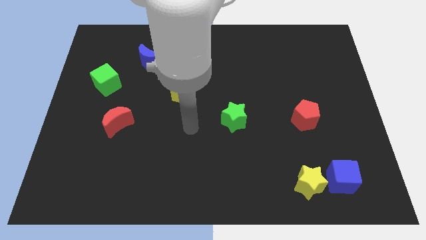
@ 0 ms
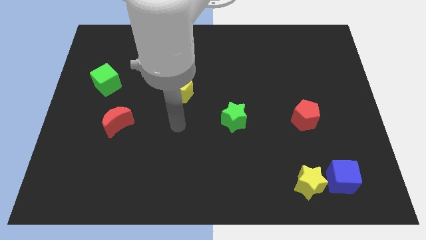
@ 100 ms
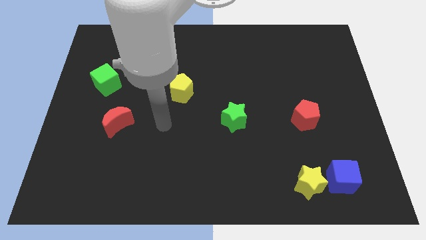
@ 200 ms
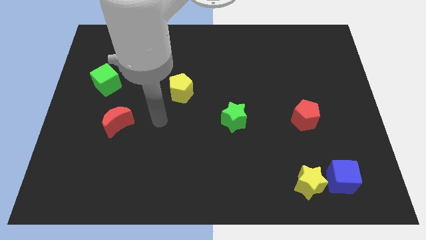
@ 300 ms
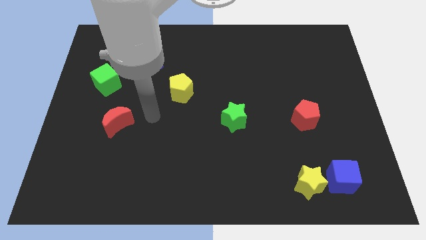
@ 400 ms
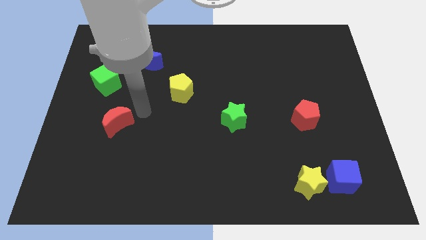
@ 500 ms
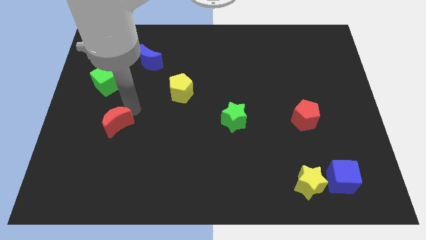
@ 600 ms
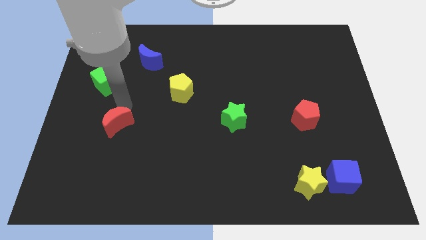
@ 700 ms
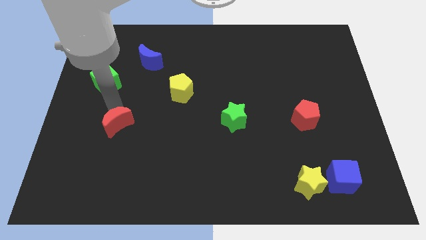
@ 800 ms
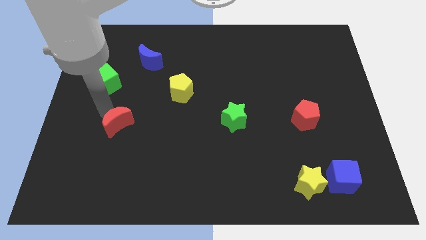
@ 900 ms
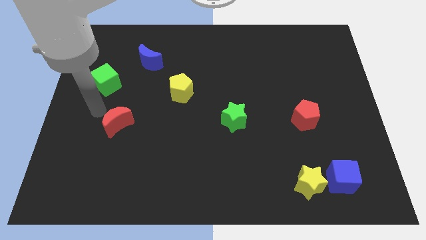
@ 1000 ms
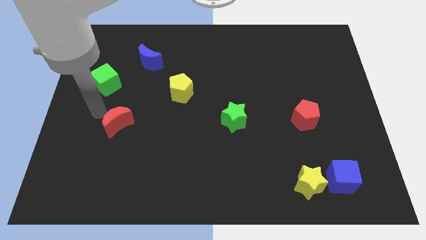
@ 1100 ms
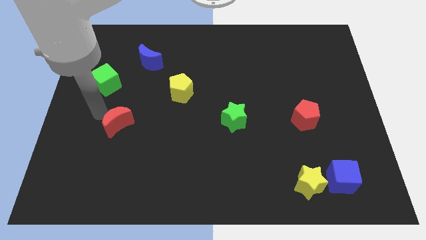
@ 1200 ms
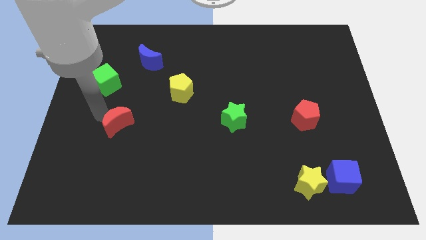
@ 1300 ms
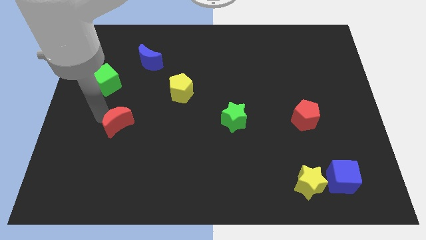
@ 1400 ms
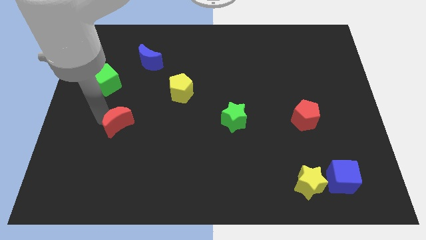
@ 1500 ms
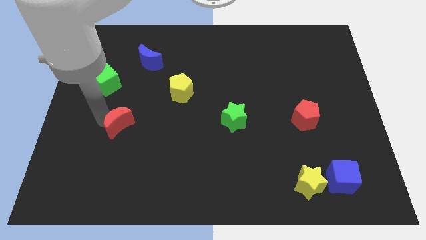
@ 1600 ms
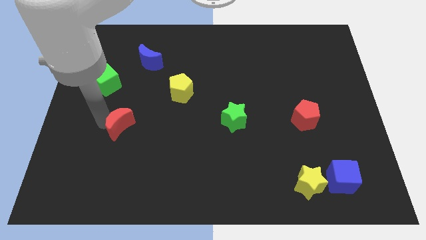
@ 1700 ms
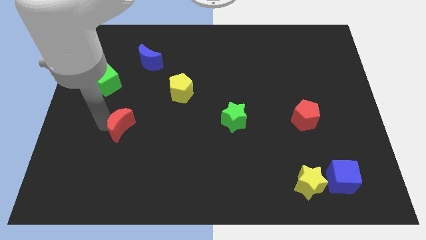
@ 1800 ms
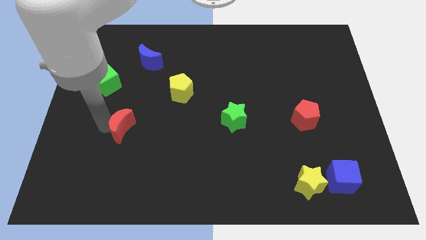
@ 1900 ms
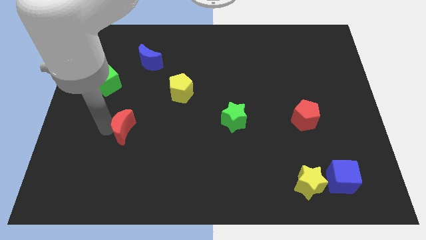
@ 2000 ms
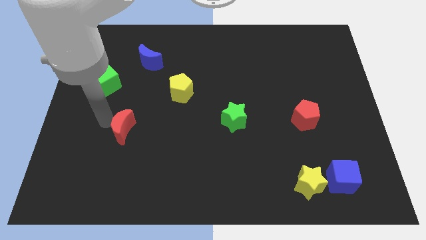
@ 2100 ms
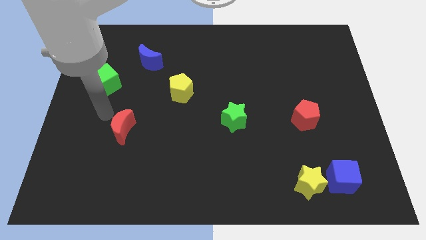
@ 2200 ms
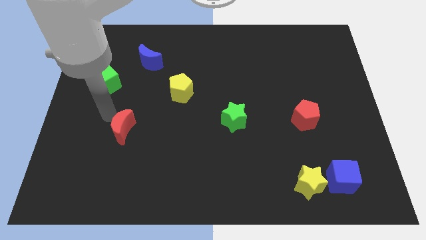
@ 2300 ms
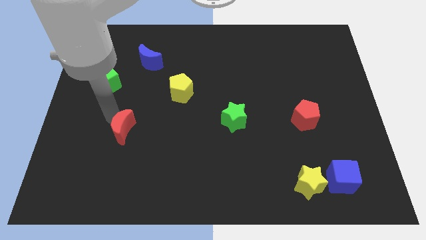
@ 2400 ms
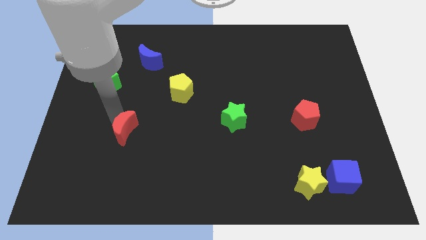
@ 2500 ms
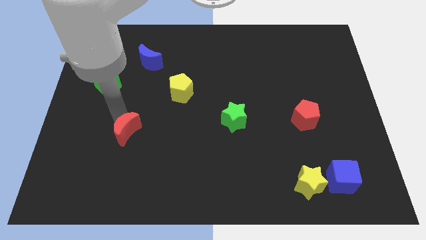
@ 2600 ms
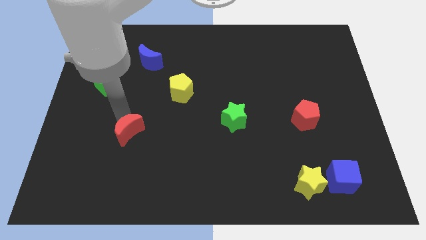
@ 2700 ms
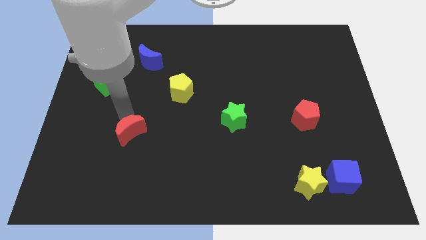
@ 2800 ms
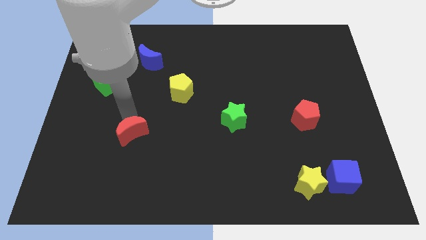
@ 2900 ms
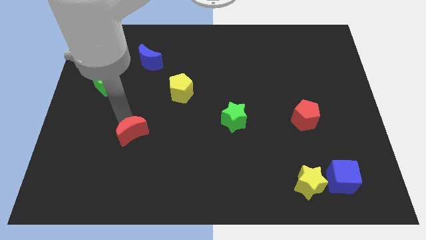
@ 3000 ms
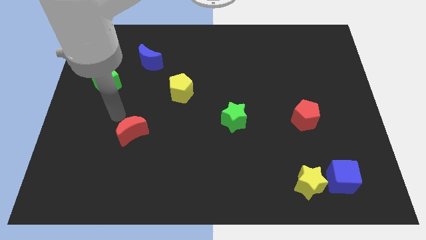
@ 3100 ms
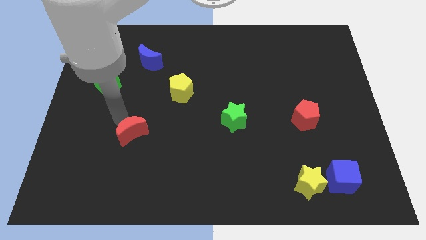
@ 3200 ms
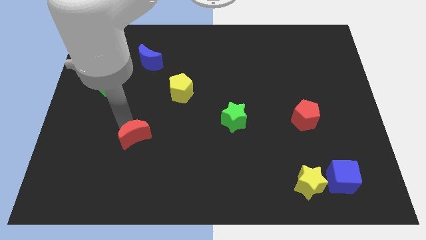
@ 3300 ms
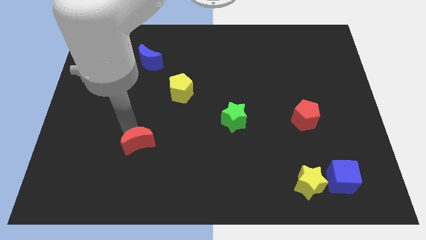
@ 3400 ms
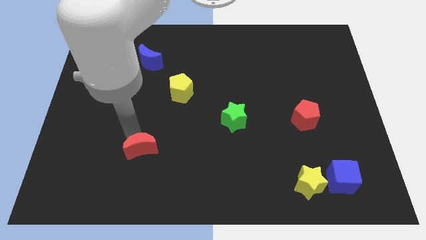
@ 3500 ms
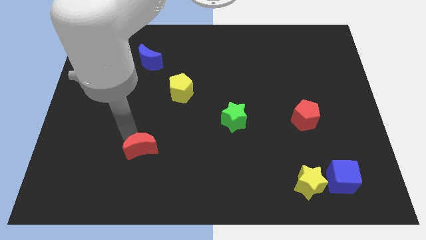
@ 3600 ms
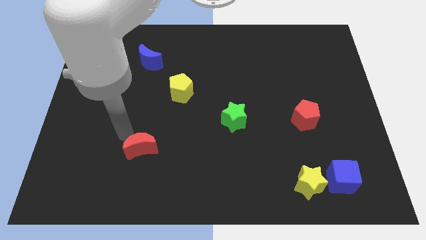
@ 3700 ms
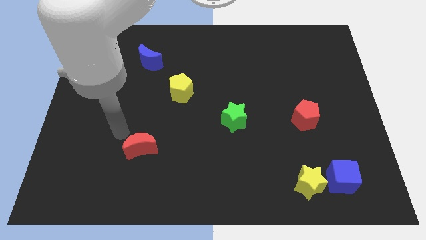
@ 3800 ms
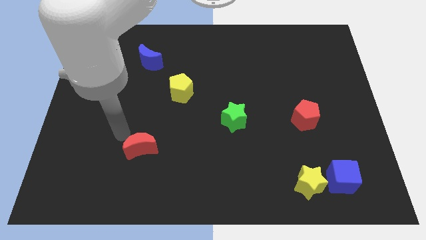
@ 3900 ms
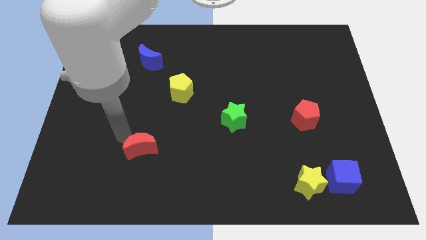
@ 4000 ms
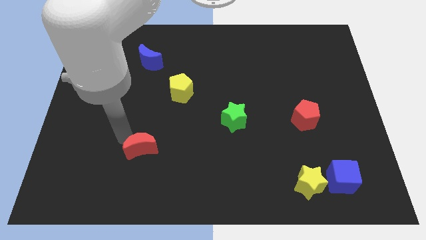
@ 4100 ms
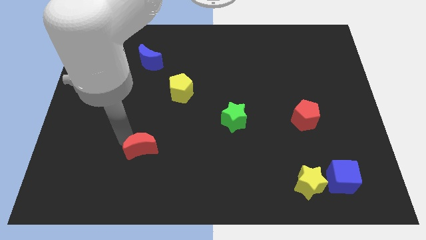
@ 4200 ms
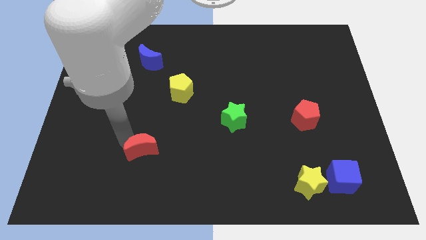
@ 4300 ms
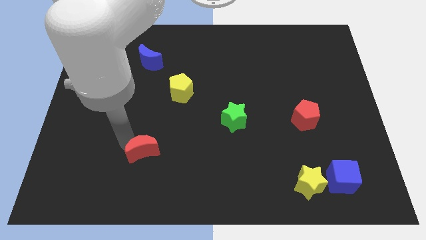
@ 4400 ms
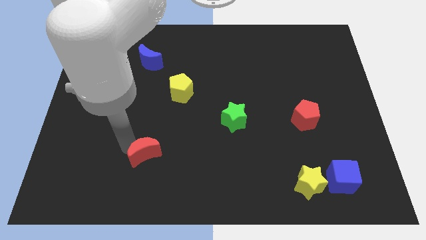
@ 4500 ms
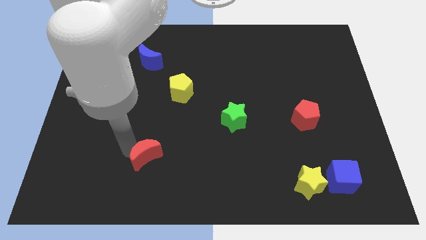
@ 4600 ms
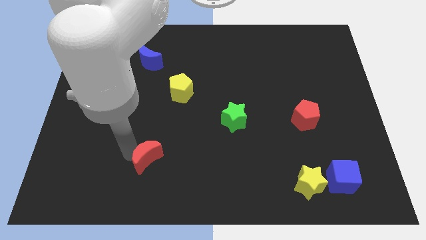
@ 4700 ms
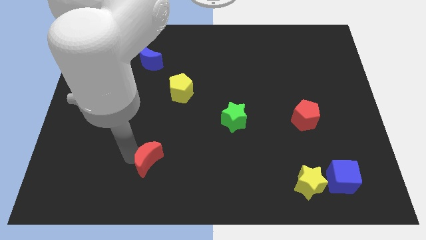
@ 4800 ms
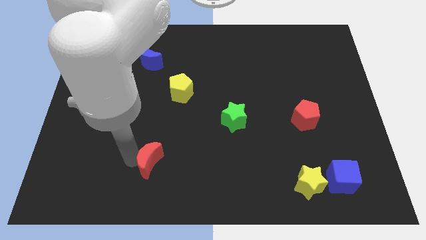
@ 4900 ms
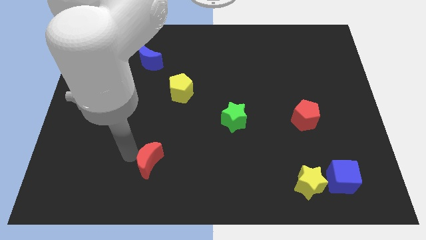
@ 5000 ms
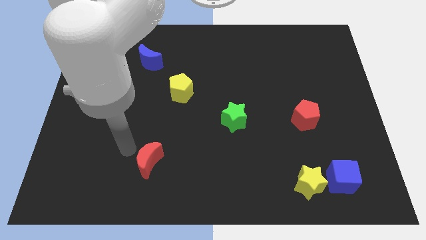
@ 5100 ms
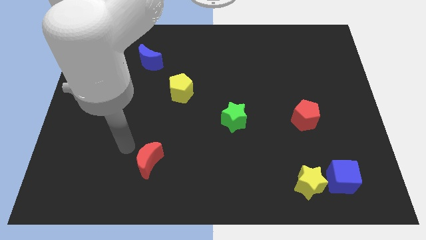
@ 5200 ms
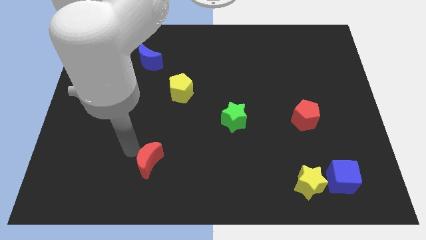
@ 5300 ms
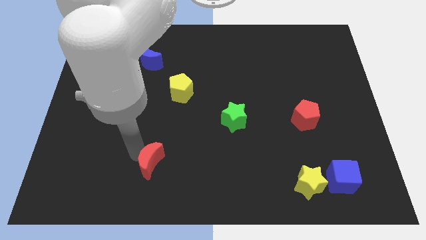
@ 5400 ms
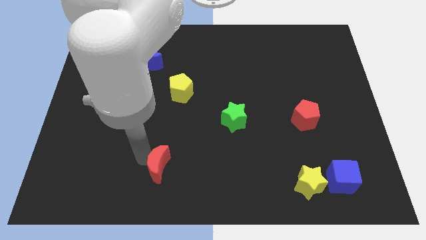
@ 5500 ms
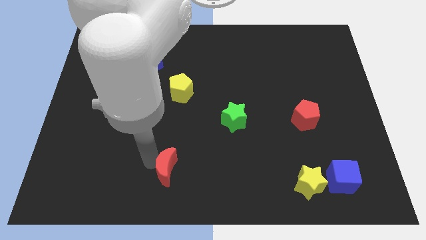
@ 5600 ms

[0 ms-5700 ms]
put the red moon to the bottom side
